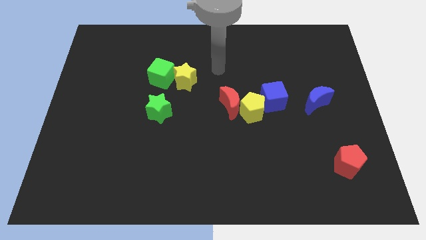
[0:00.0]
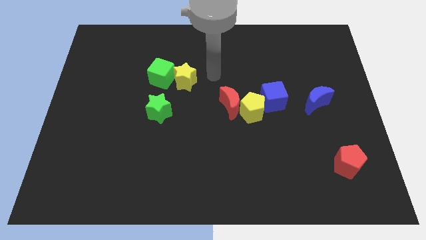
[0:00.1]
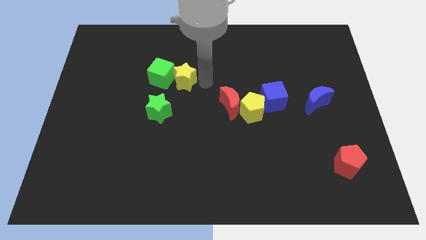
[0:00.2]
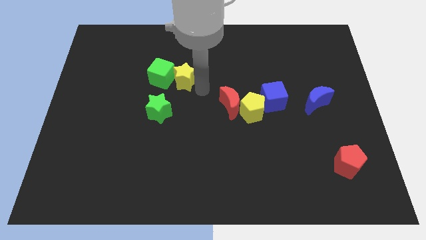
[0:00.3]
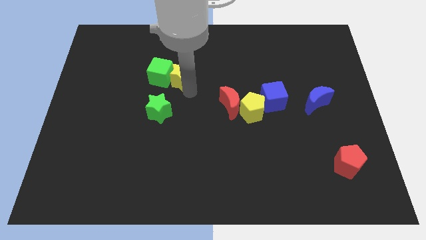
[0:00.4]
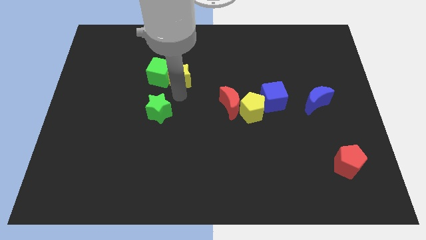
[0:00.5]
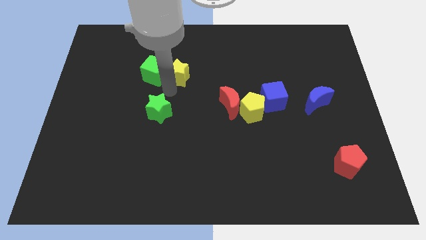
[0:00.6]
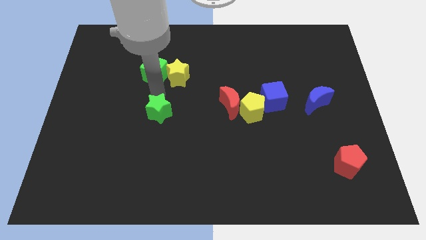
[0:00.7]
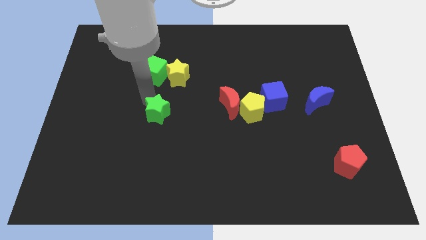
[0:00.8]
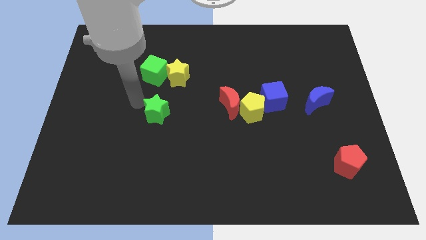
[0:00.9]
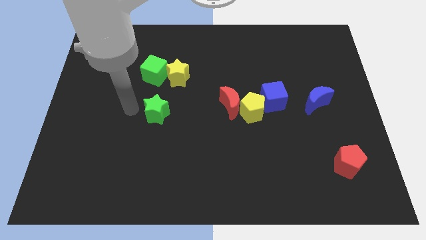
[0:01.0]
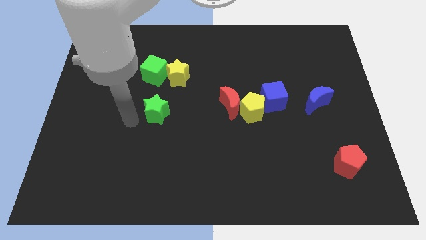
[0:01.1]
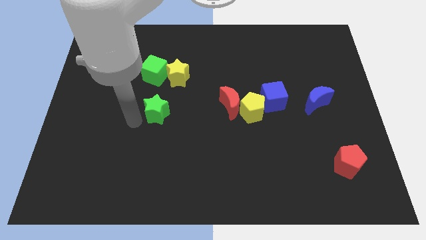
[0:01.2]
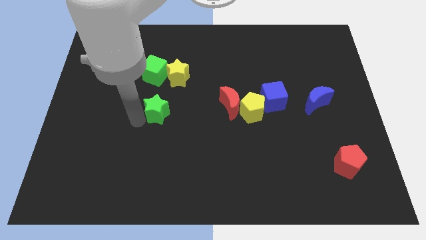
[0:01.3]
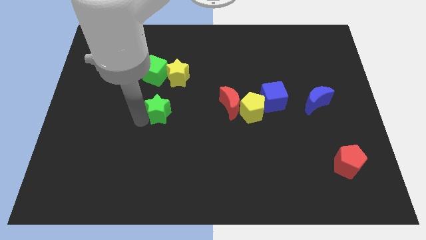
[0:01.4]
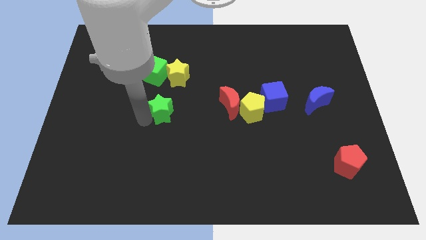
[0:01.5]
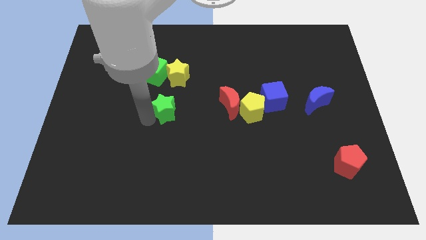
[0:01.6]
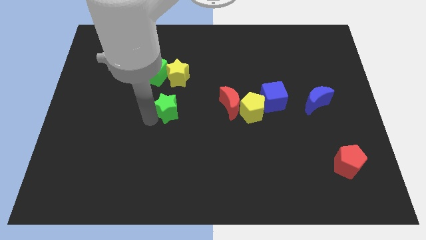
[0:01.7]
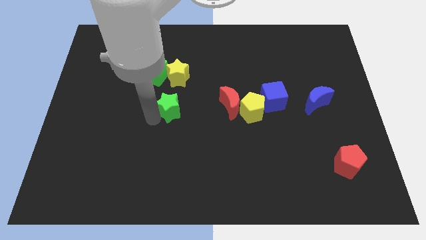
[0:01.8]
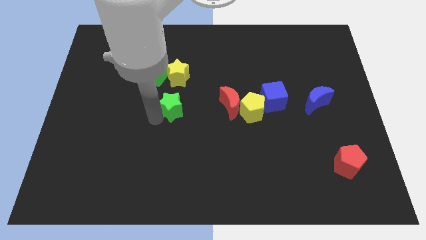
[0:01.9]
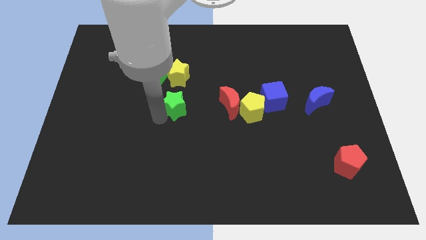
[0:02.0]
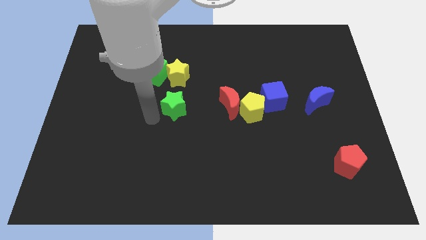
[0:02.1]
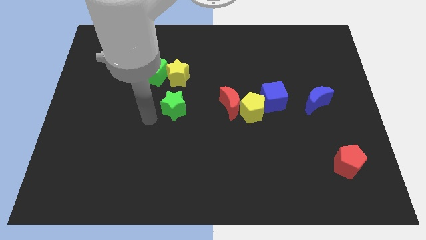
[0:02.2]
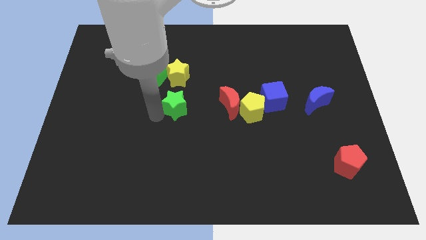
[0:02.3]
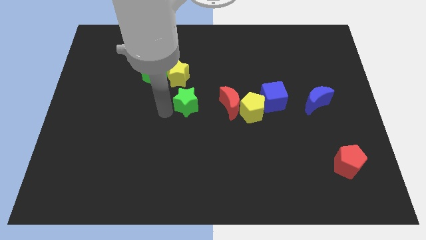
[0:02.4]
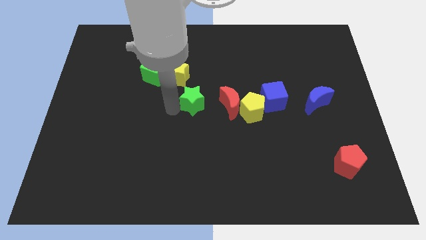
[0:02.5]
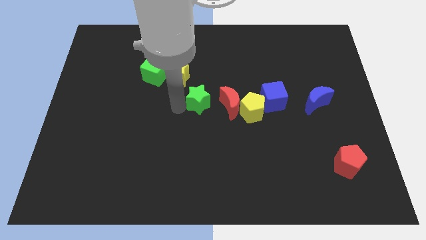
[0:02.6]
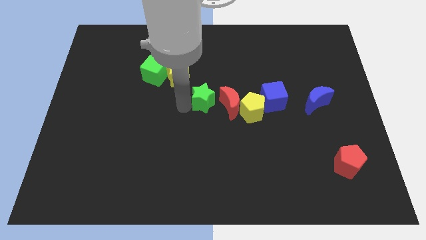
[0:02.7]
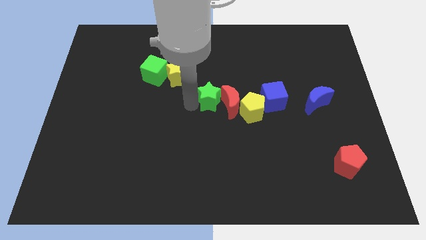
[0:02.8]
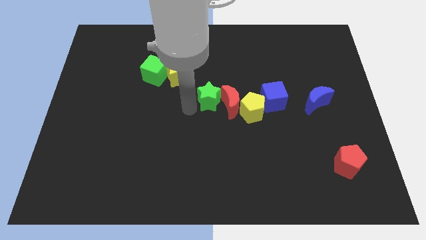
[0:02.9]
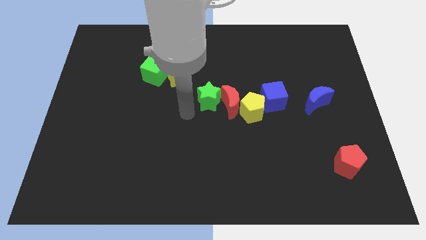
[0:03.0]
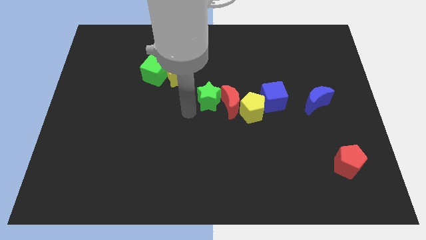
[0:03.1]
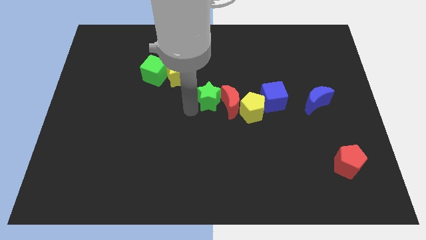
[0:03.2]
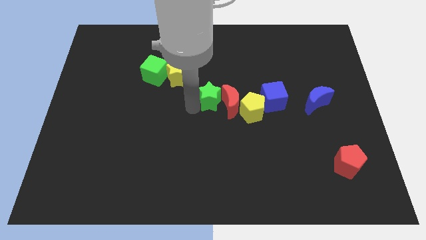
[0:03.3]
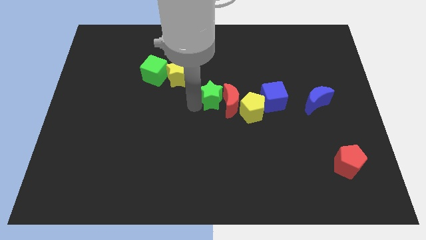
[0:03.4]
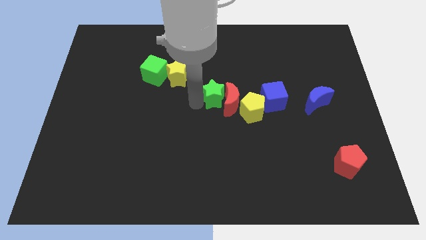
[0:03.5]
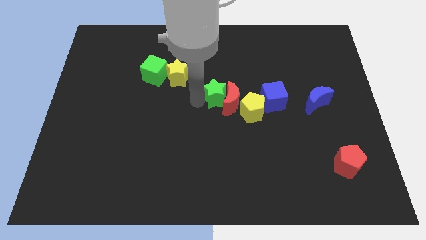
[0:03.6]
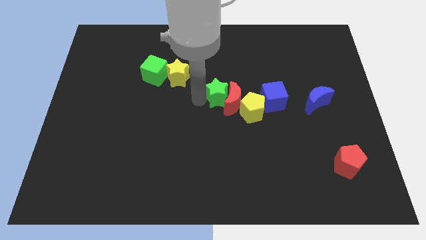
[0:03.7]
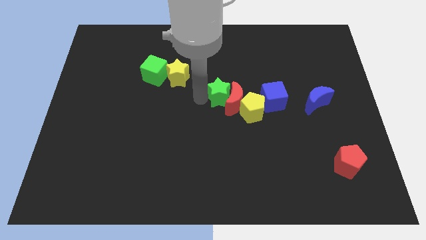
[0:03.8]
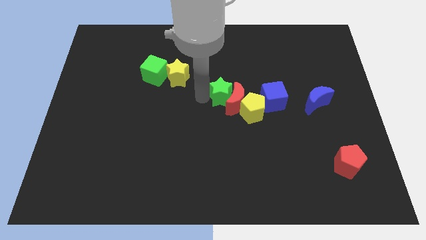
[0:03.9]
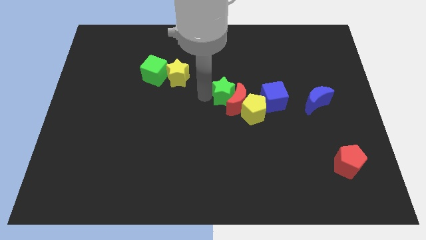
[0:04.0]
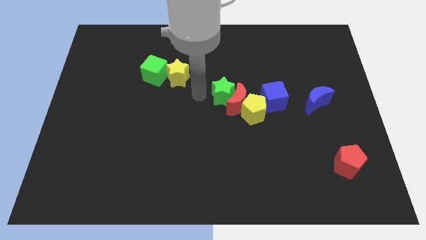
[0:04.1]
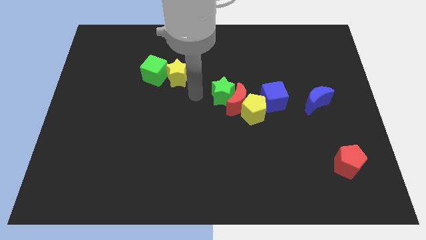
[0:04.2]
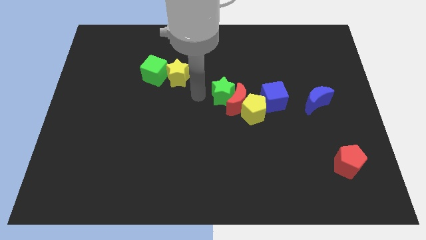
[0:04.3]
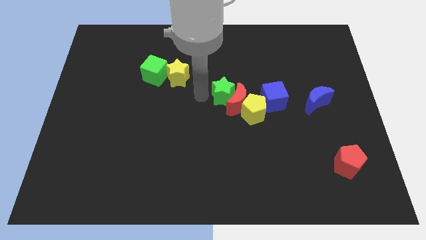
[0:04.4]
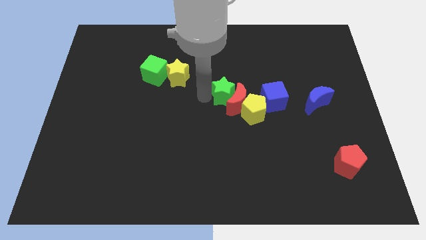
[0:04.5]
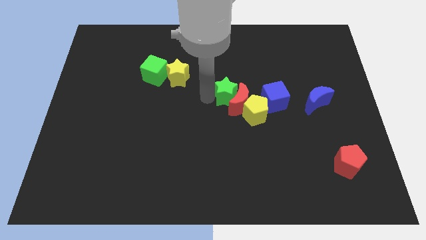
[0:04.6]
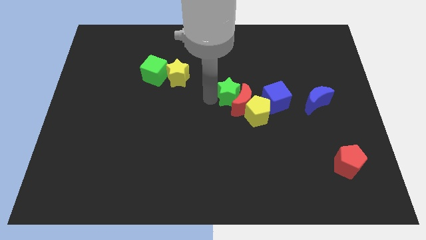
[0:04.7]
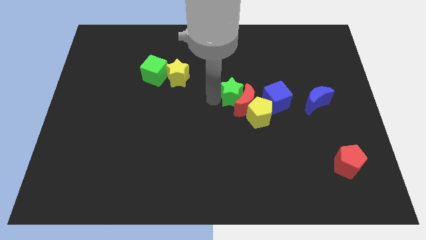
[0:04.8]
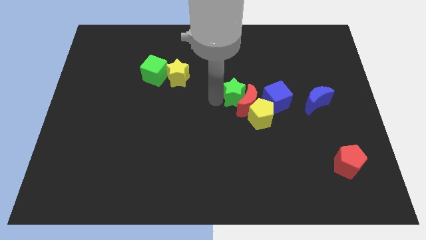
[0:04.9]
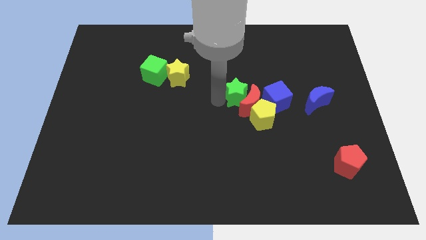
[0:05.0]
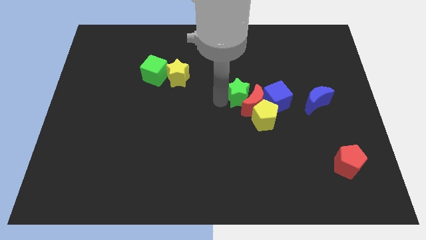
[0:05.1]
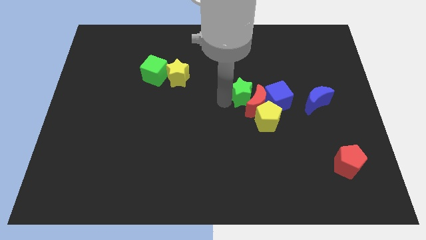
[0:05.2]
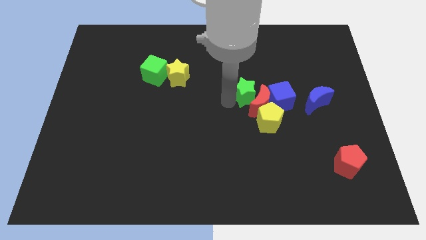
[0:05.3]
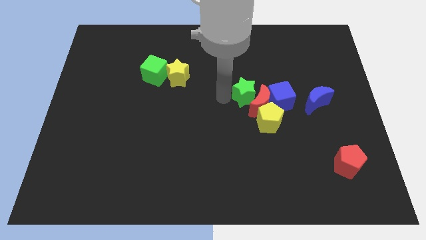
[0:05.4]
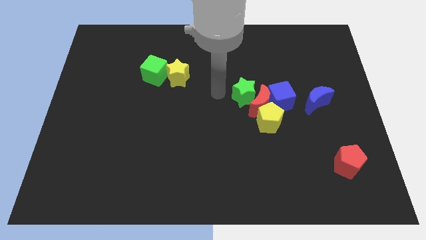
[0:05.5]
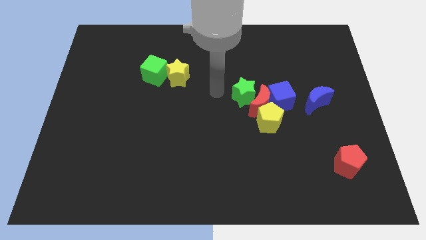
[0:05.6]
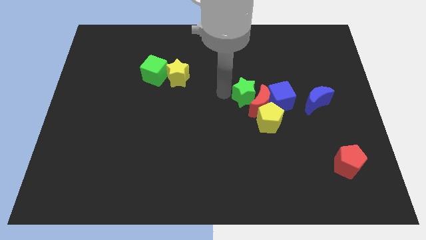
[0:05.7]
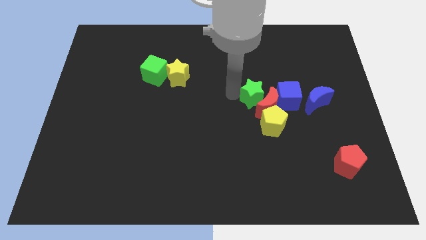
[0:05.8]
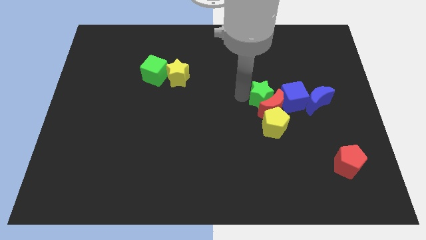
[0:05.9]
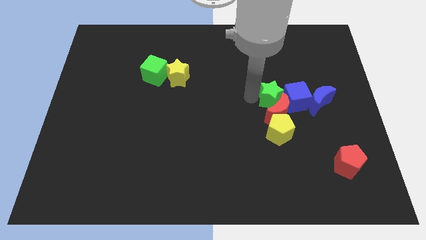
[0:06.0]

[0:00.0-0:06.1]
put the green star next to the blue cube

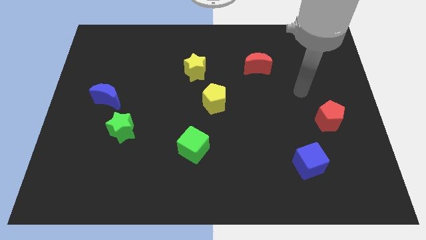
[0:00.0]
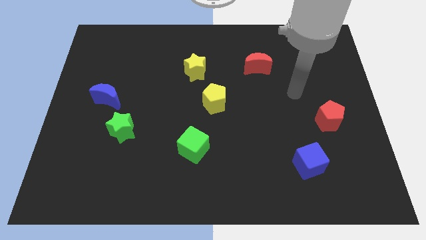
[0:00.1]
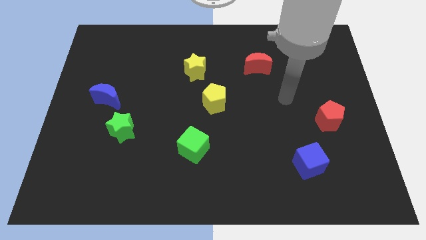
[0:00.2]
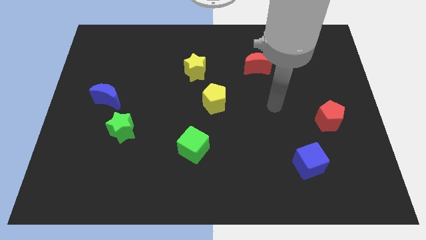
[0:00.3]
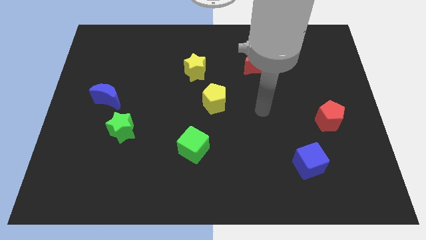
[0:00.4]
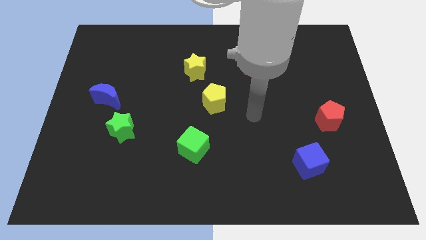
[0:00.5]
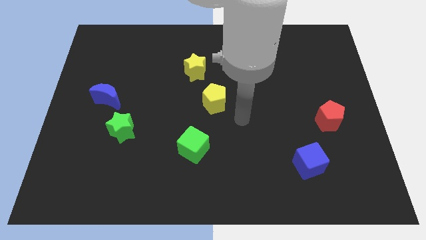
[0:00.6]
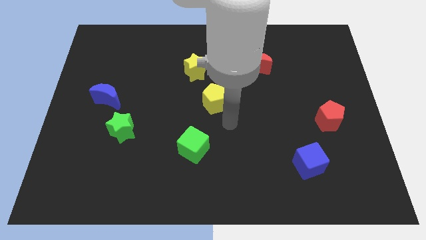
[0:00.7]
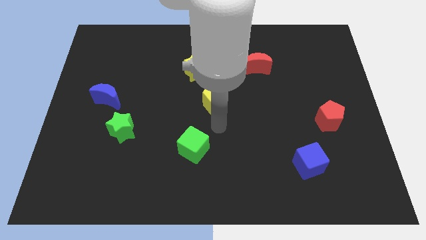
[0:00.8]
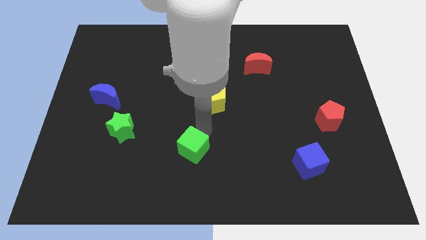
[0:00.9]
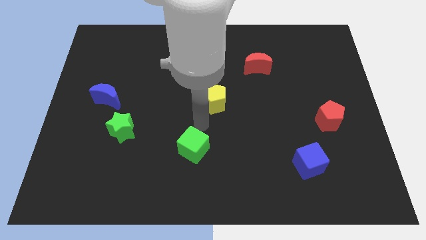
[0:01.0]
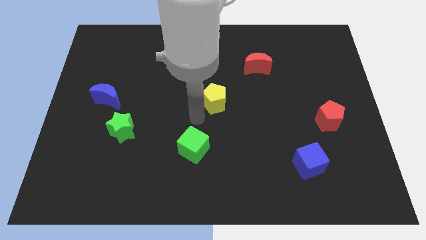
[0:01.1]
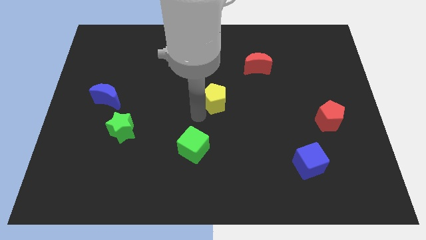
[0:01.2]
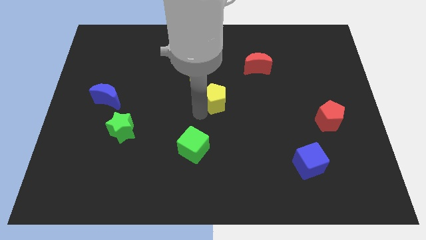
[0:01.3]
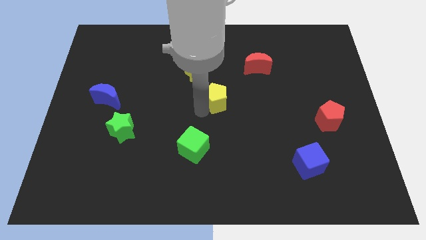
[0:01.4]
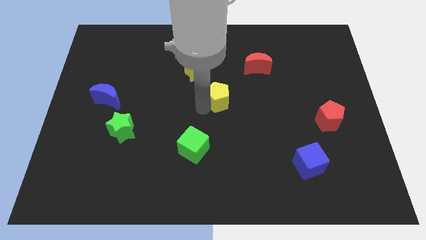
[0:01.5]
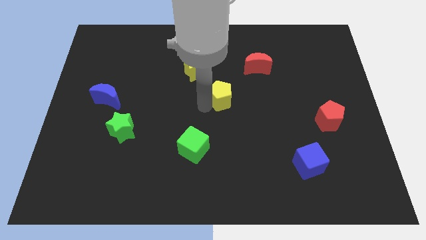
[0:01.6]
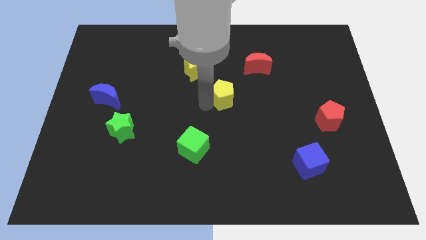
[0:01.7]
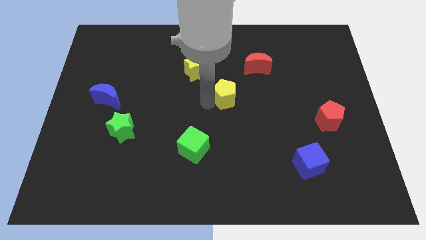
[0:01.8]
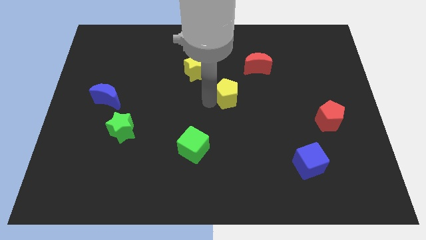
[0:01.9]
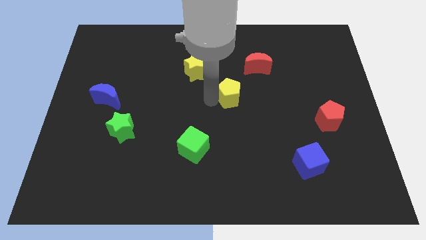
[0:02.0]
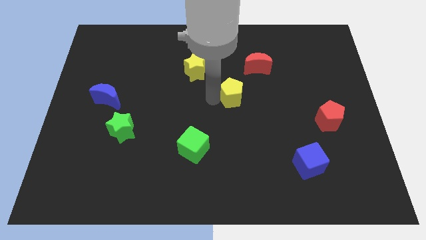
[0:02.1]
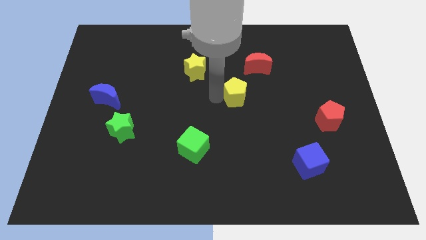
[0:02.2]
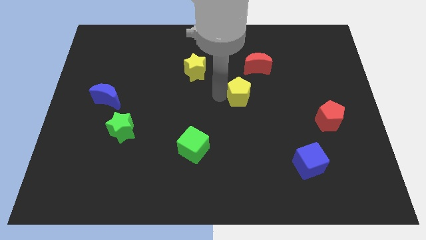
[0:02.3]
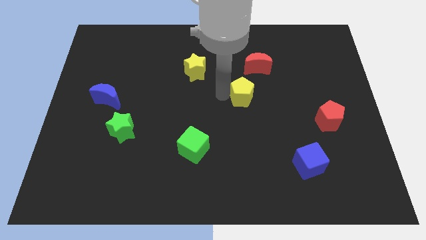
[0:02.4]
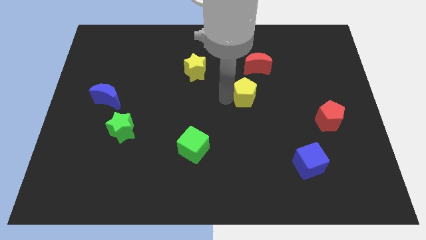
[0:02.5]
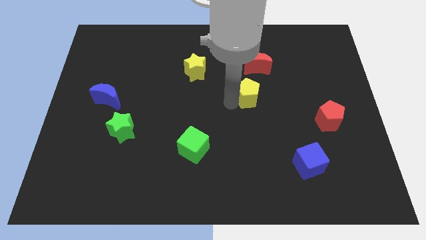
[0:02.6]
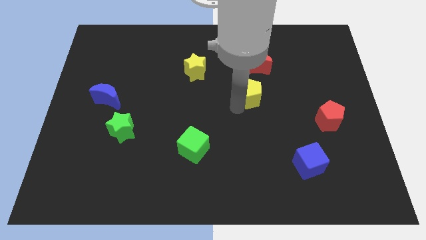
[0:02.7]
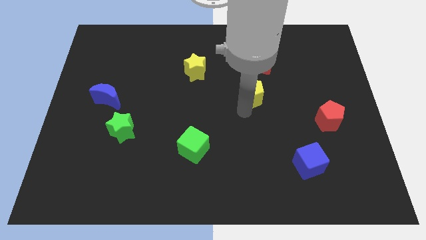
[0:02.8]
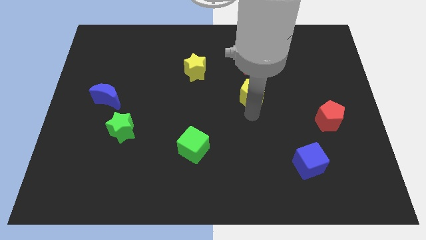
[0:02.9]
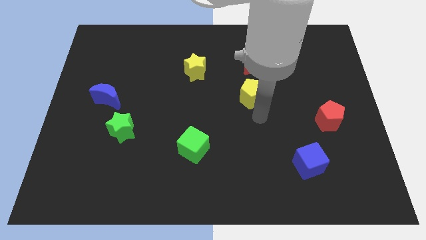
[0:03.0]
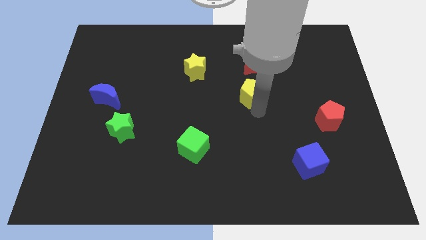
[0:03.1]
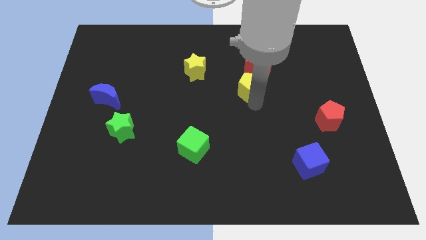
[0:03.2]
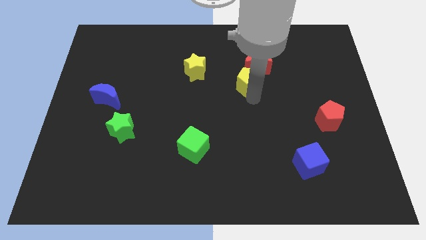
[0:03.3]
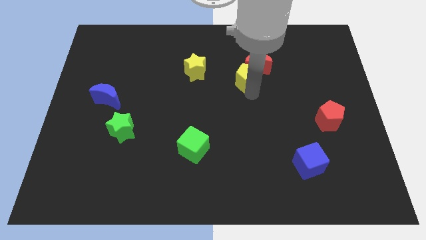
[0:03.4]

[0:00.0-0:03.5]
put the yellow pentagon to the red moon
